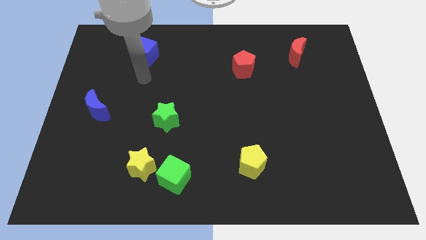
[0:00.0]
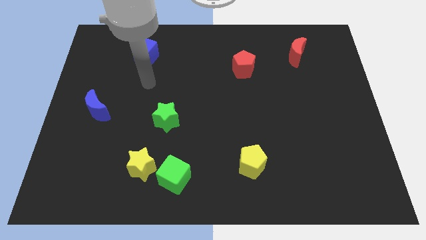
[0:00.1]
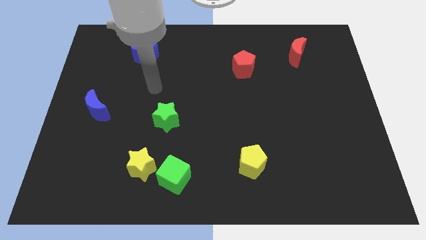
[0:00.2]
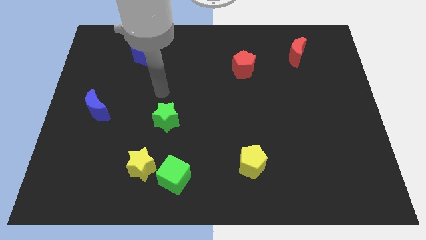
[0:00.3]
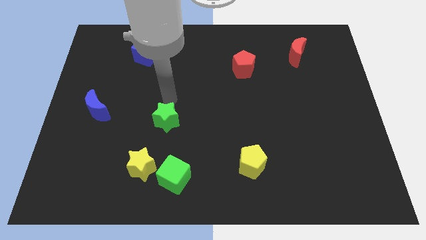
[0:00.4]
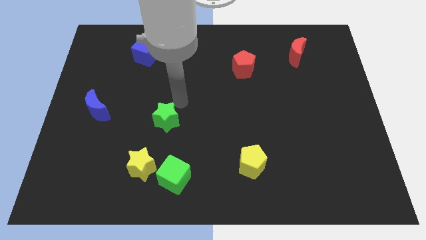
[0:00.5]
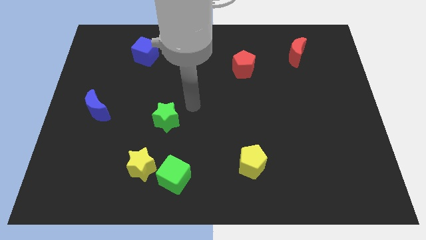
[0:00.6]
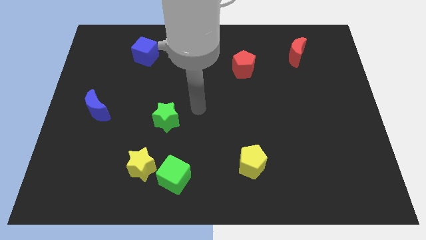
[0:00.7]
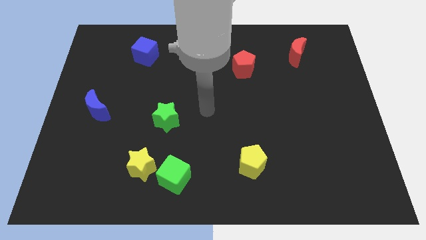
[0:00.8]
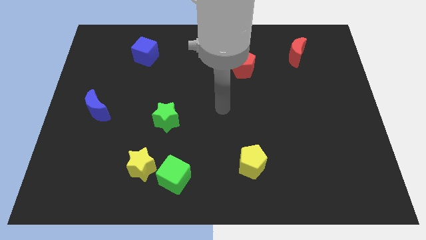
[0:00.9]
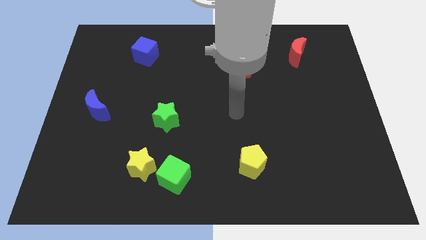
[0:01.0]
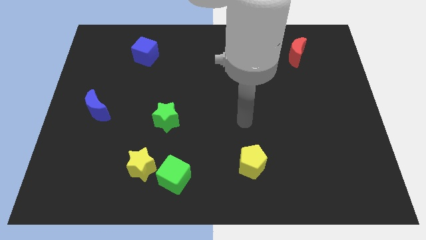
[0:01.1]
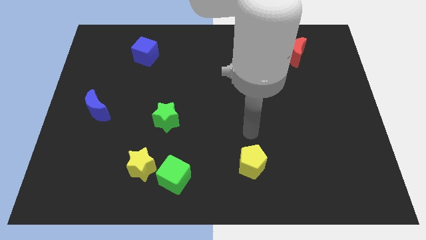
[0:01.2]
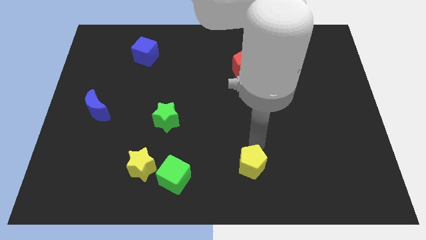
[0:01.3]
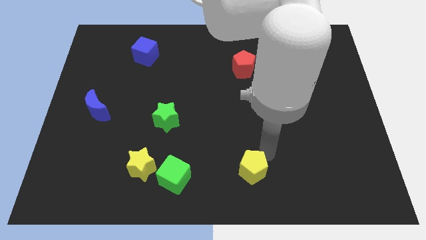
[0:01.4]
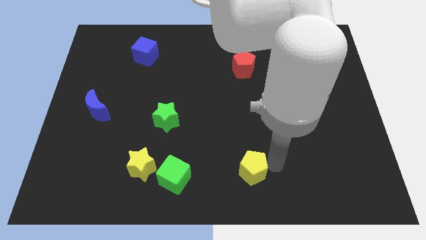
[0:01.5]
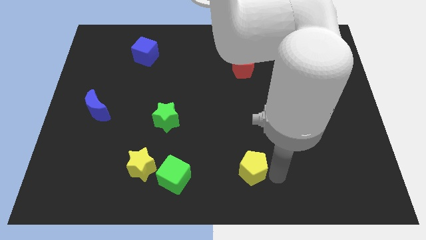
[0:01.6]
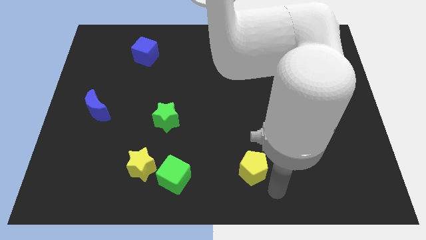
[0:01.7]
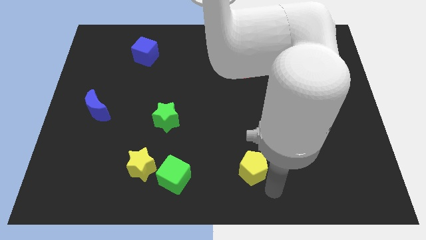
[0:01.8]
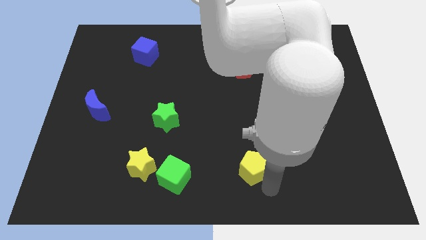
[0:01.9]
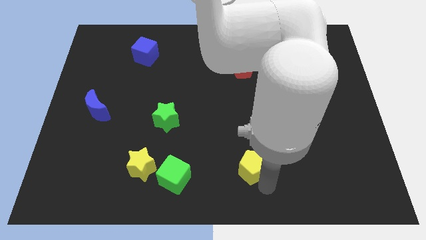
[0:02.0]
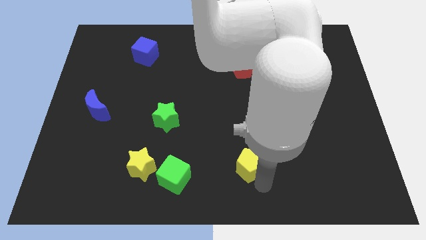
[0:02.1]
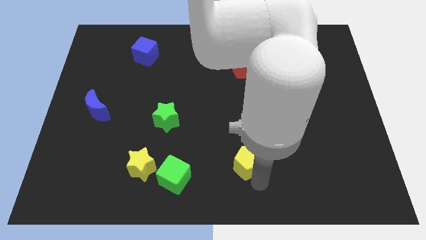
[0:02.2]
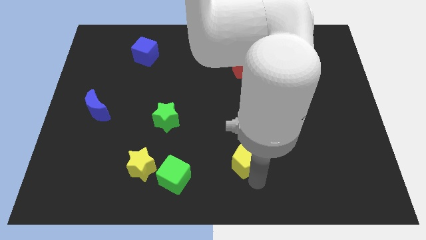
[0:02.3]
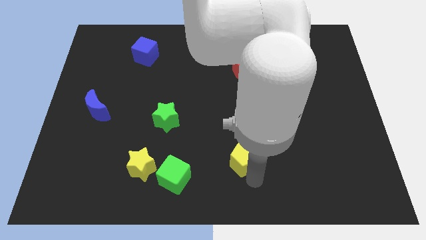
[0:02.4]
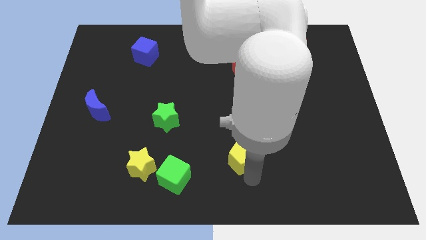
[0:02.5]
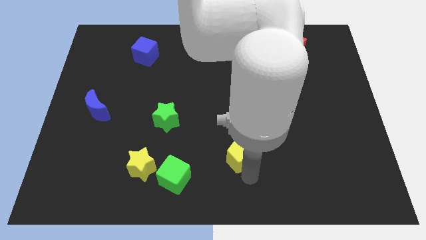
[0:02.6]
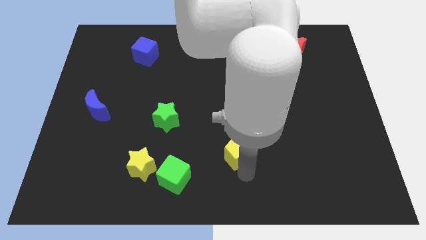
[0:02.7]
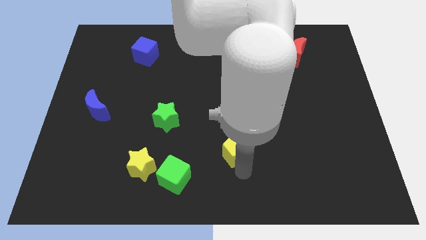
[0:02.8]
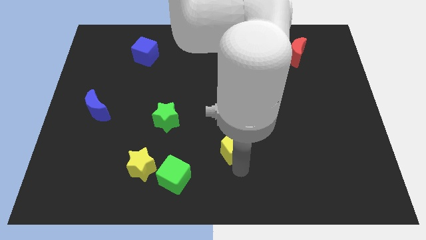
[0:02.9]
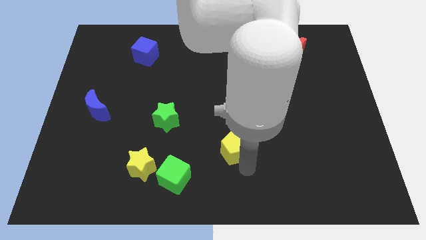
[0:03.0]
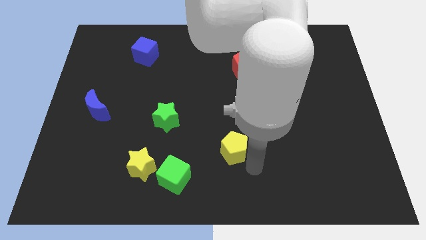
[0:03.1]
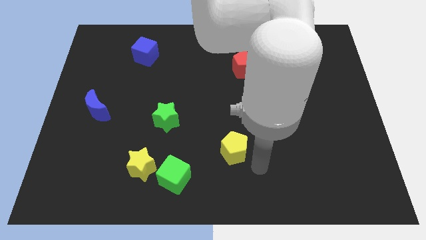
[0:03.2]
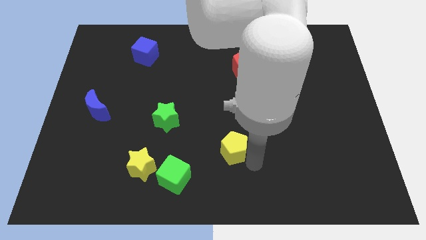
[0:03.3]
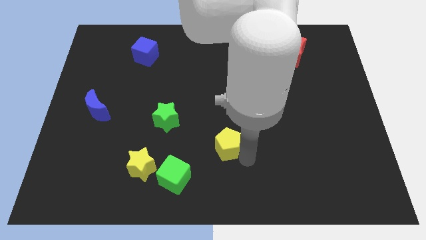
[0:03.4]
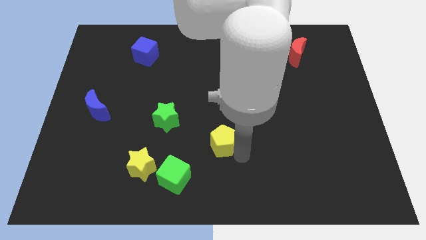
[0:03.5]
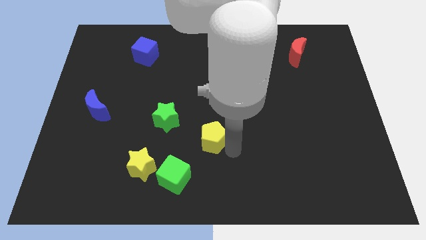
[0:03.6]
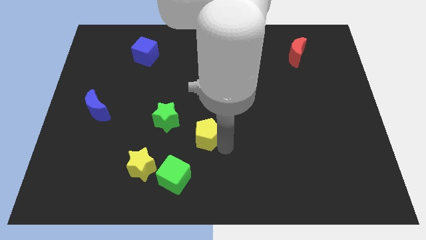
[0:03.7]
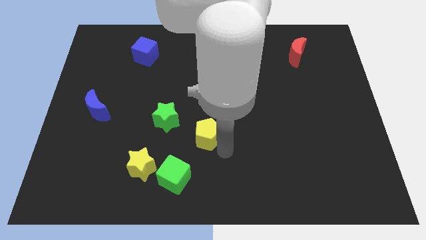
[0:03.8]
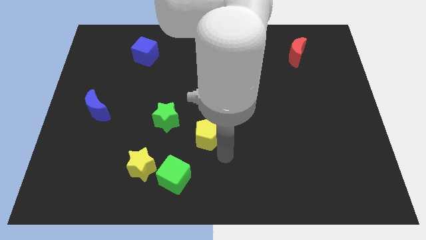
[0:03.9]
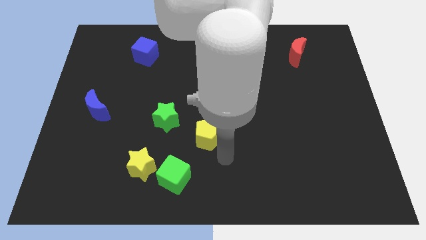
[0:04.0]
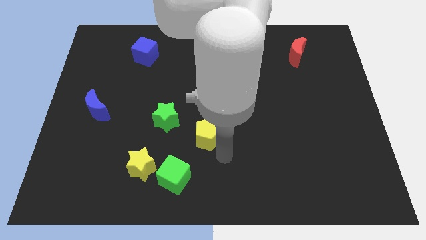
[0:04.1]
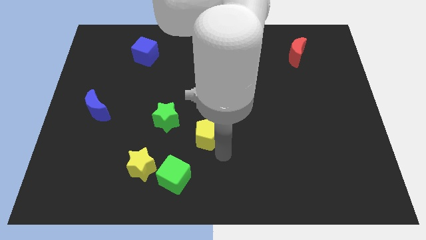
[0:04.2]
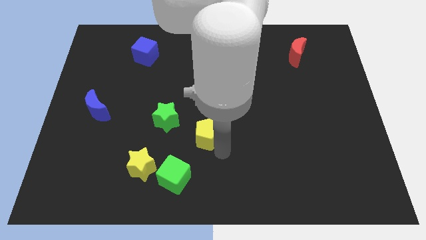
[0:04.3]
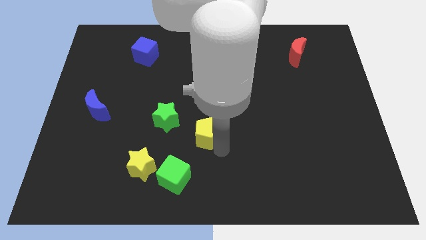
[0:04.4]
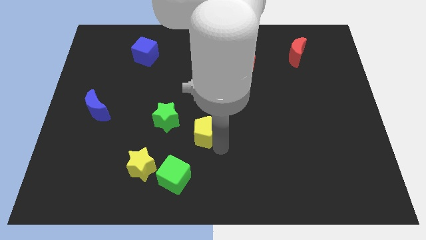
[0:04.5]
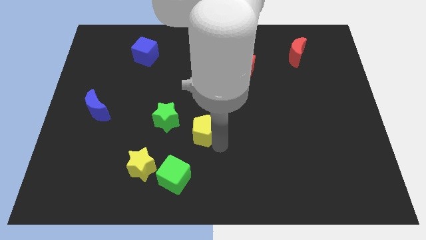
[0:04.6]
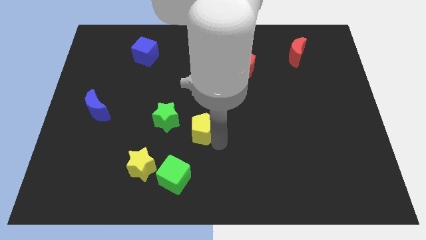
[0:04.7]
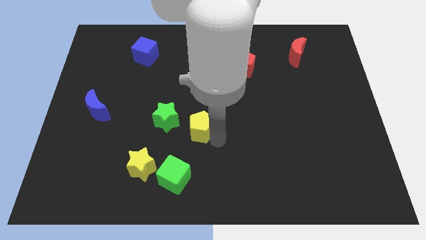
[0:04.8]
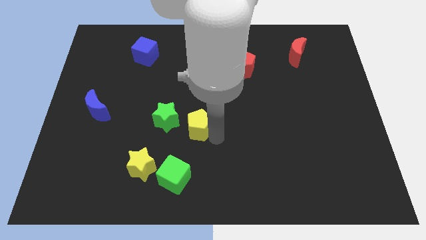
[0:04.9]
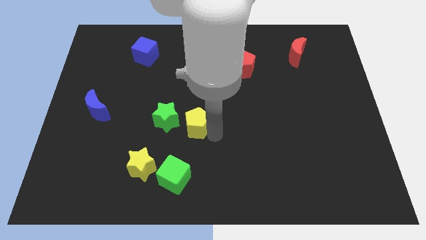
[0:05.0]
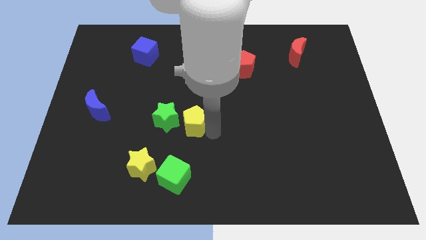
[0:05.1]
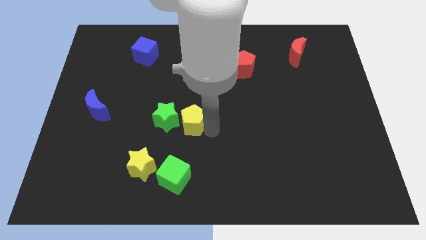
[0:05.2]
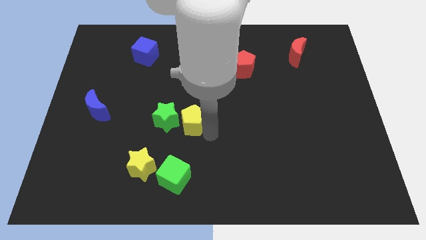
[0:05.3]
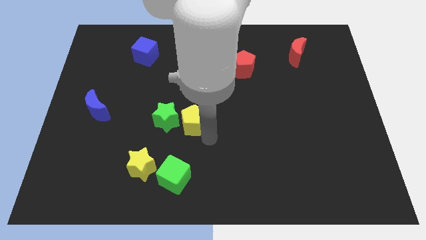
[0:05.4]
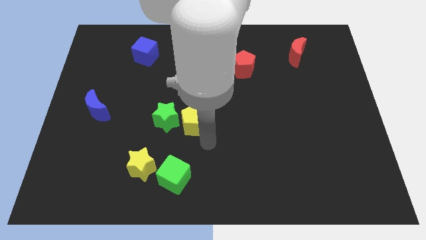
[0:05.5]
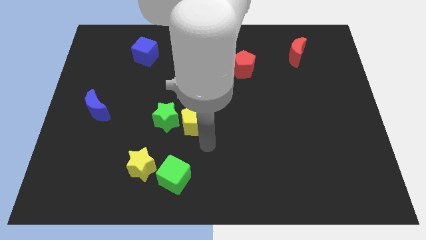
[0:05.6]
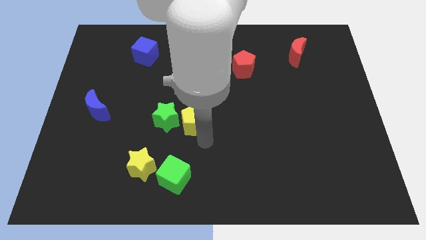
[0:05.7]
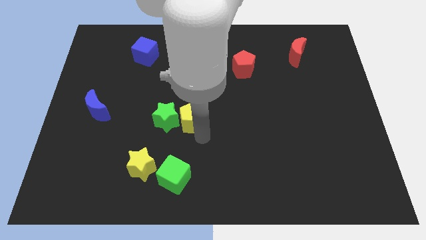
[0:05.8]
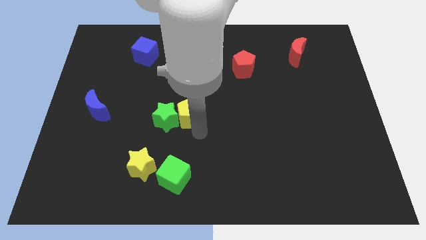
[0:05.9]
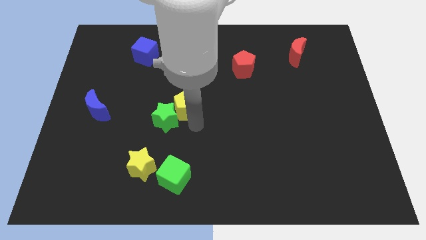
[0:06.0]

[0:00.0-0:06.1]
move the yellow pentagon diagonally up and left

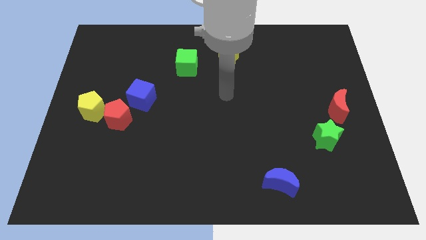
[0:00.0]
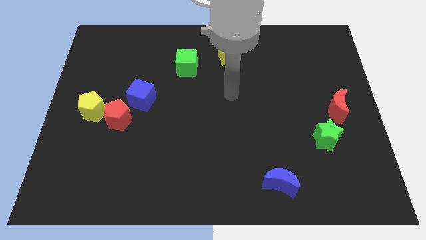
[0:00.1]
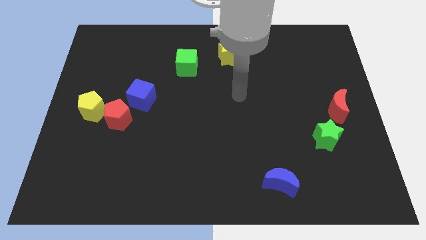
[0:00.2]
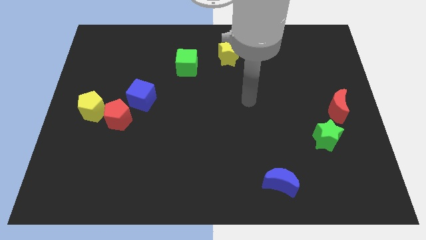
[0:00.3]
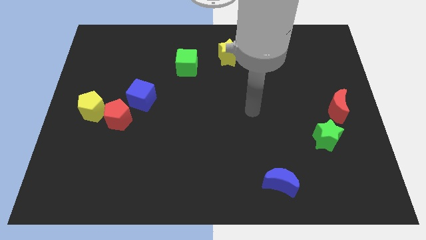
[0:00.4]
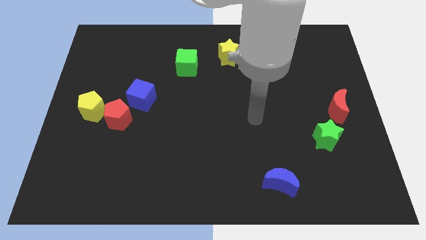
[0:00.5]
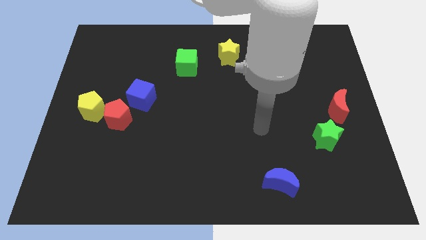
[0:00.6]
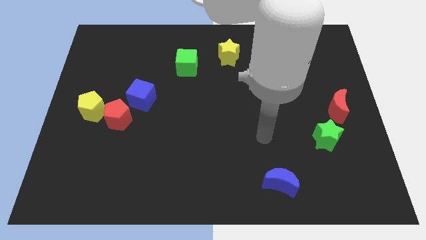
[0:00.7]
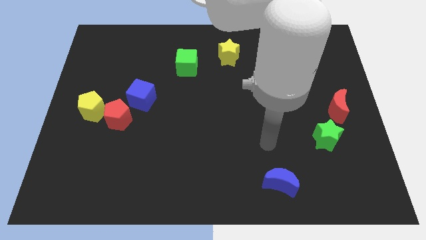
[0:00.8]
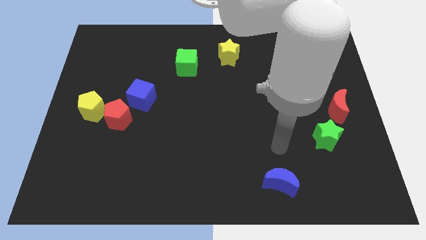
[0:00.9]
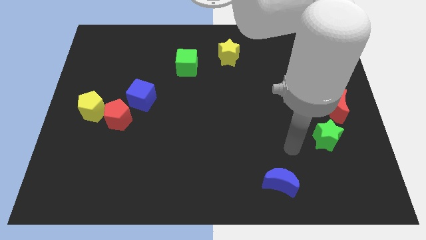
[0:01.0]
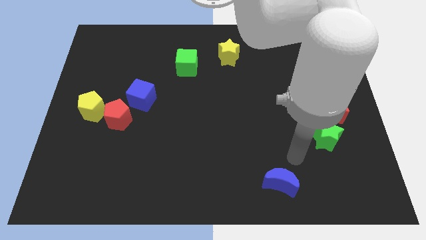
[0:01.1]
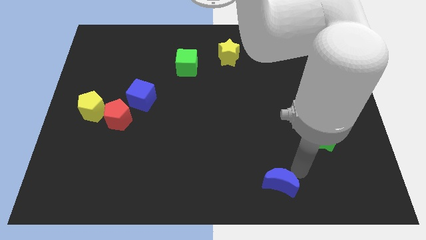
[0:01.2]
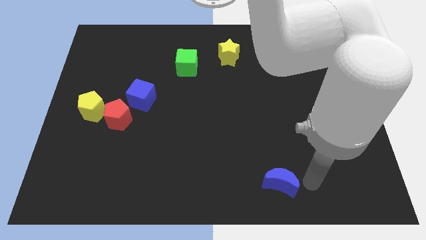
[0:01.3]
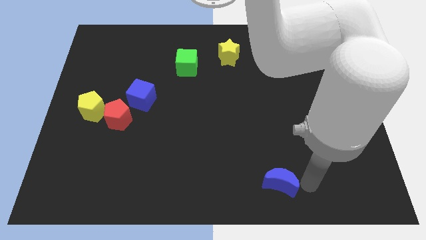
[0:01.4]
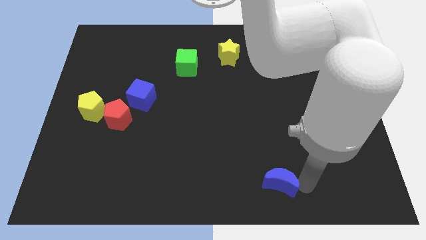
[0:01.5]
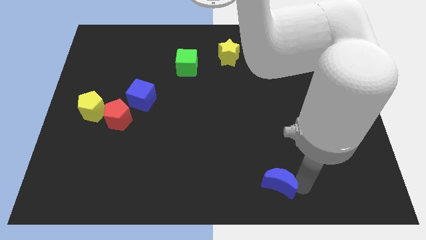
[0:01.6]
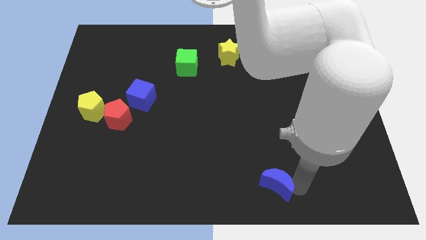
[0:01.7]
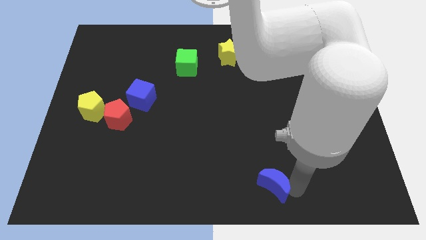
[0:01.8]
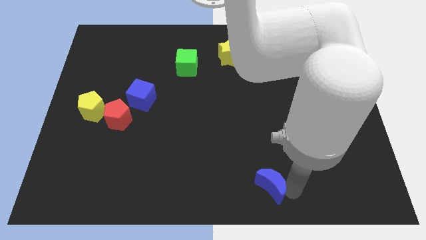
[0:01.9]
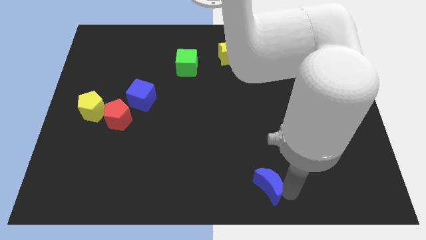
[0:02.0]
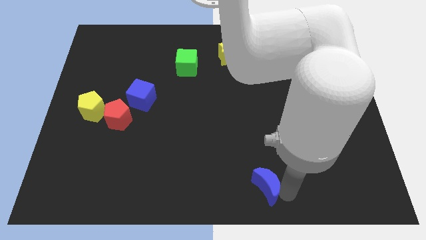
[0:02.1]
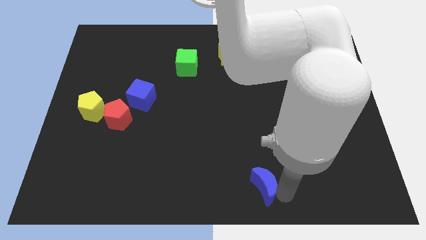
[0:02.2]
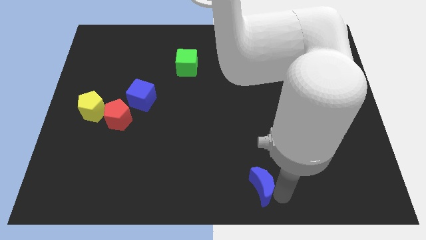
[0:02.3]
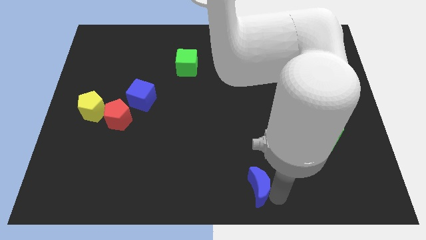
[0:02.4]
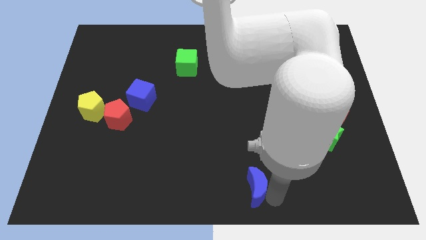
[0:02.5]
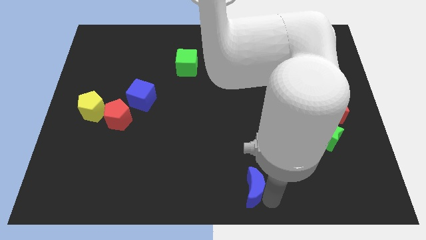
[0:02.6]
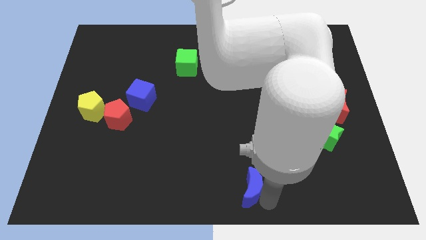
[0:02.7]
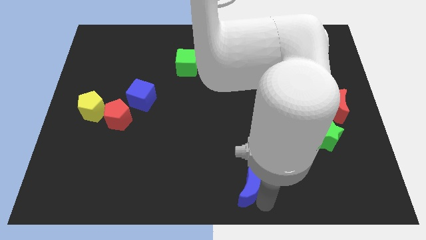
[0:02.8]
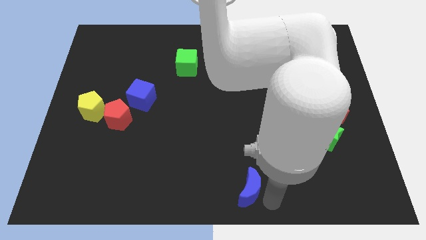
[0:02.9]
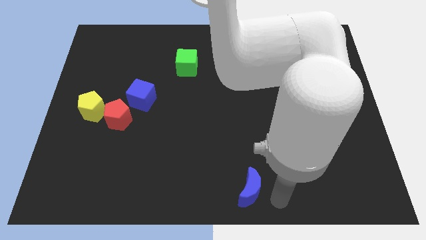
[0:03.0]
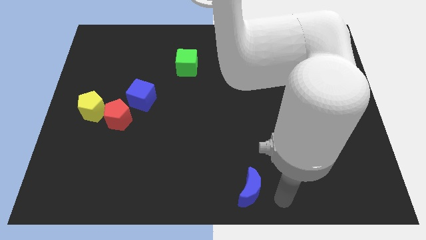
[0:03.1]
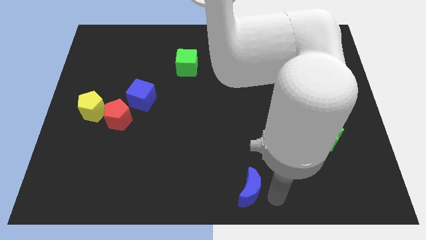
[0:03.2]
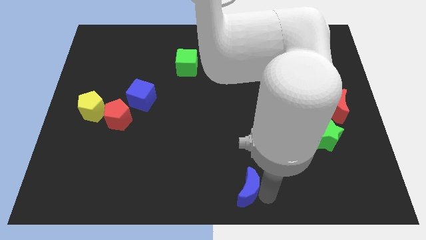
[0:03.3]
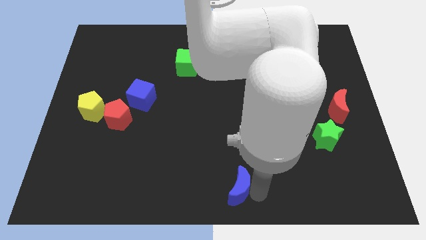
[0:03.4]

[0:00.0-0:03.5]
move the blue moon a little bit to the left
